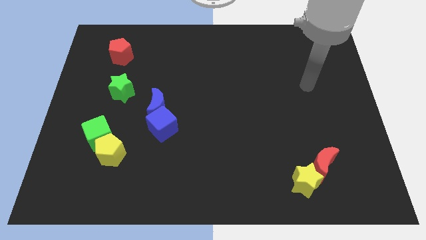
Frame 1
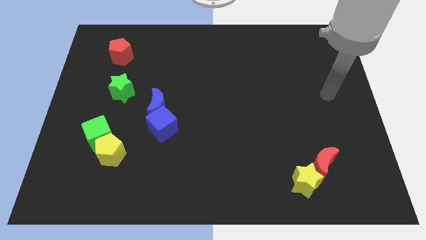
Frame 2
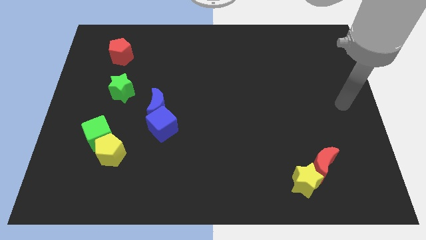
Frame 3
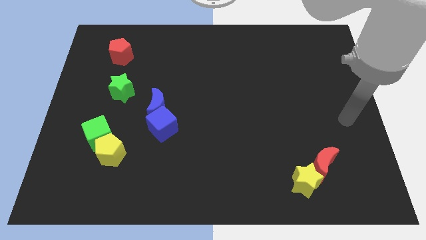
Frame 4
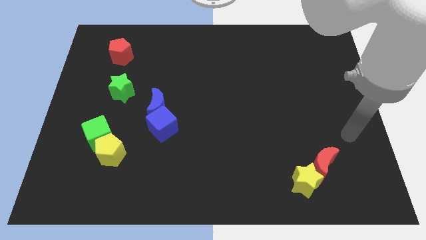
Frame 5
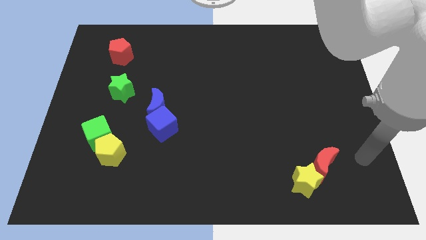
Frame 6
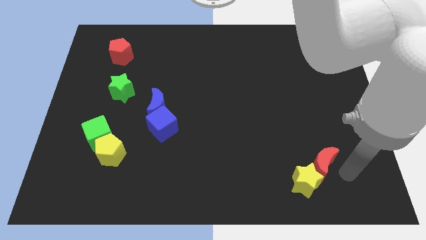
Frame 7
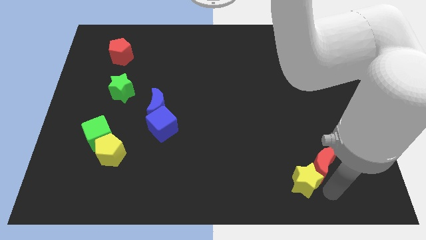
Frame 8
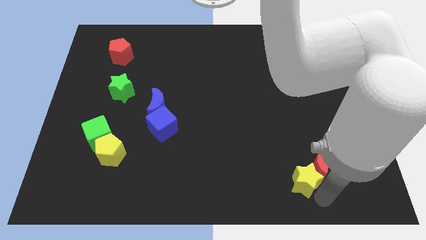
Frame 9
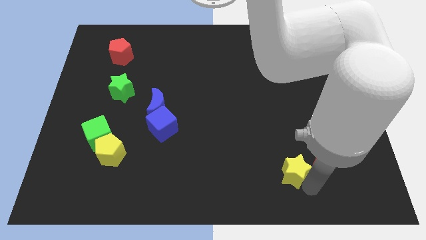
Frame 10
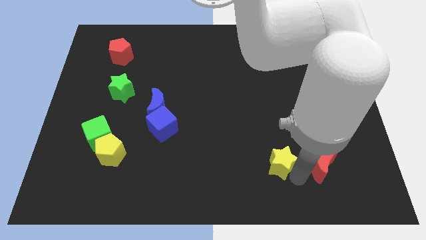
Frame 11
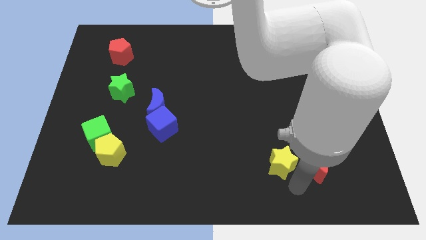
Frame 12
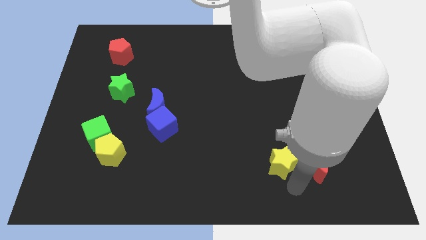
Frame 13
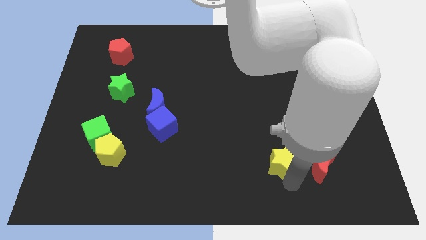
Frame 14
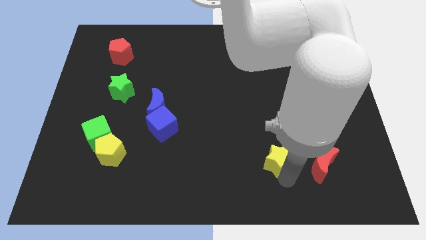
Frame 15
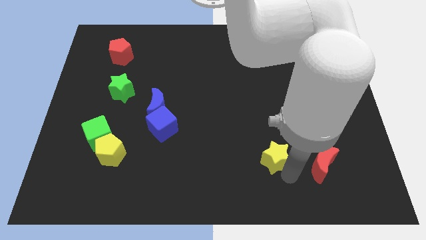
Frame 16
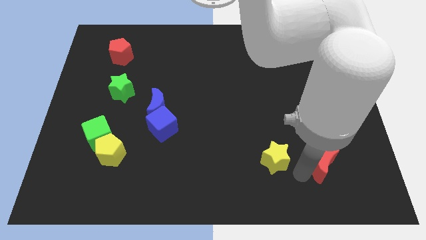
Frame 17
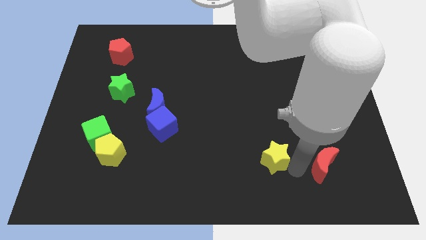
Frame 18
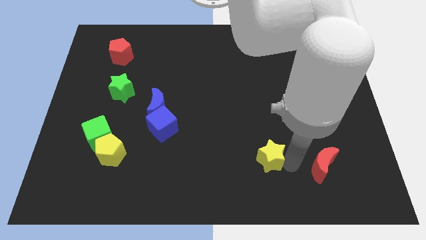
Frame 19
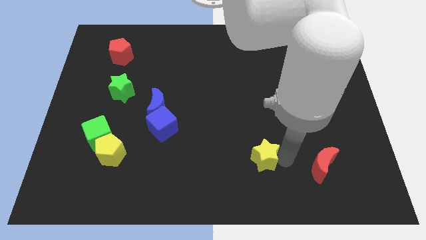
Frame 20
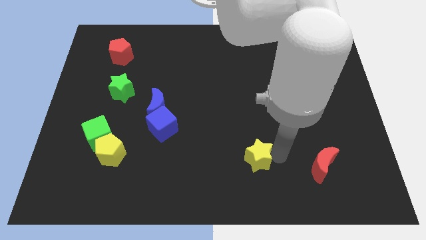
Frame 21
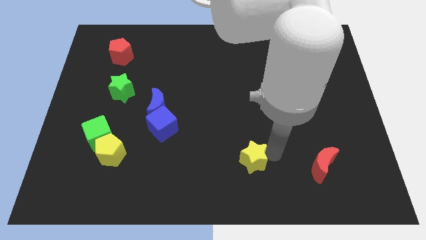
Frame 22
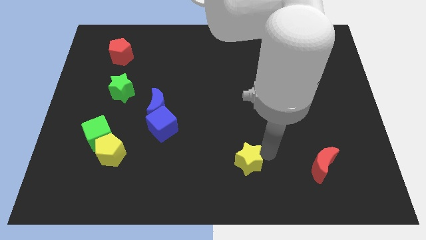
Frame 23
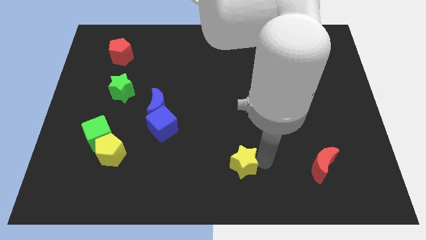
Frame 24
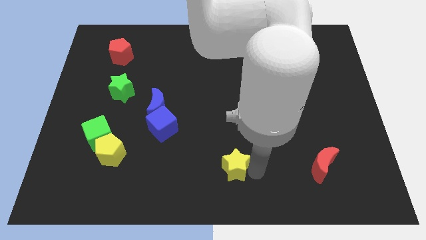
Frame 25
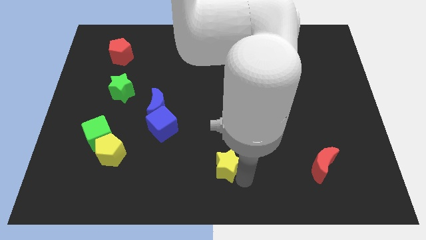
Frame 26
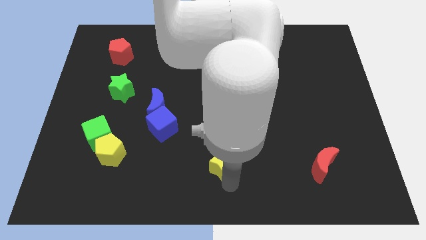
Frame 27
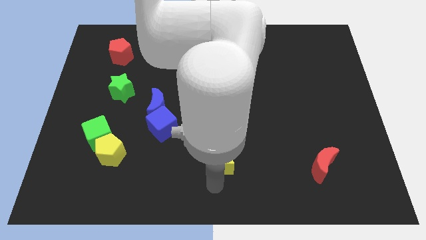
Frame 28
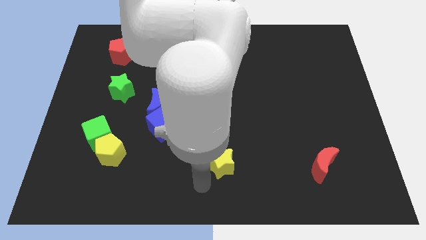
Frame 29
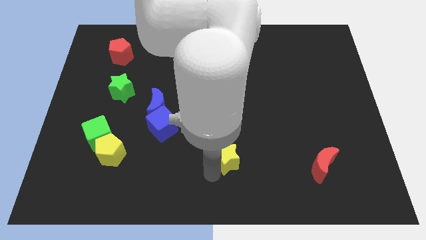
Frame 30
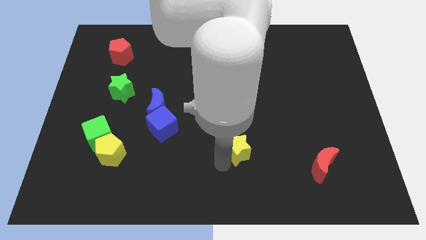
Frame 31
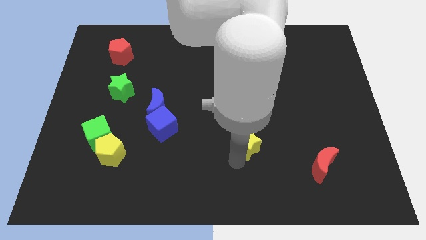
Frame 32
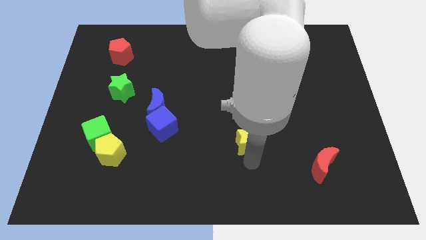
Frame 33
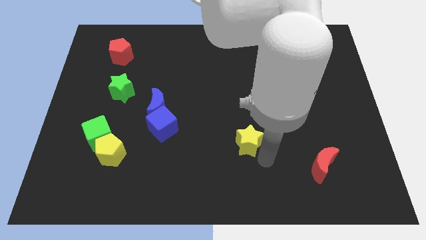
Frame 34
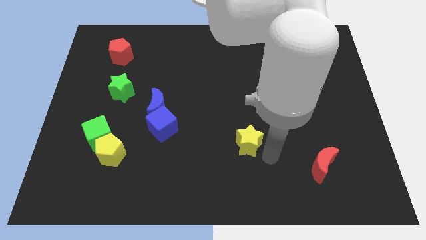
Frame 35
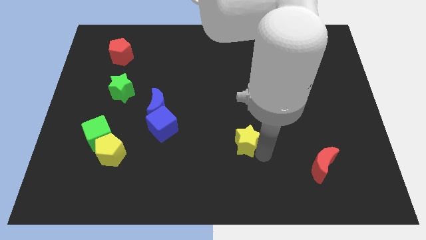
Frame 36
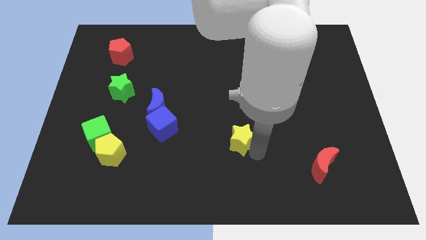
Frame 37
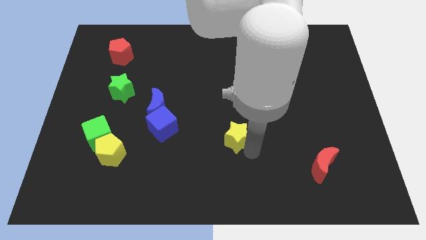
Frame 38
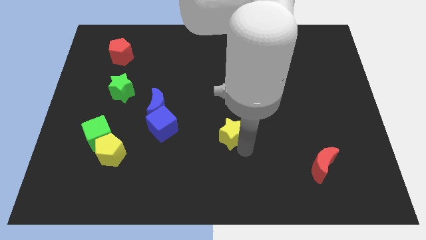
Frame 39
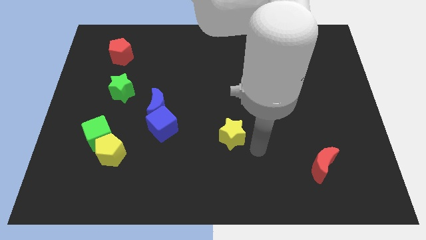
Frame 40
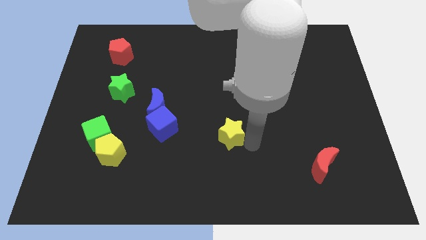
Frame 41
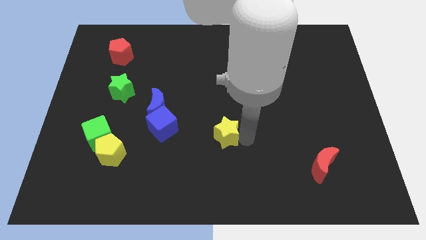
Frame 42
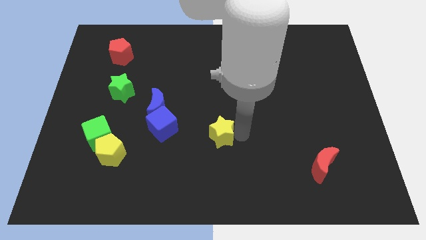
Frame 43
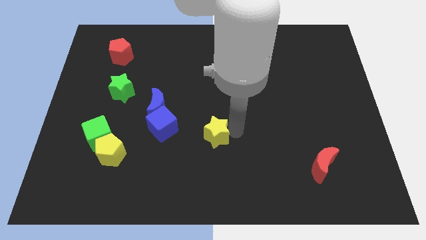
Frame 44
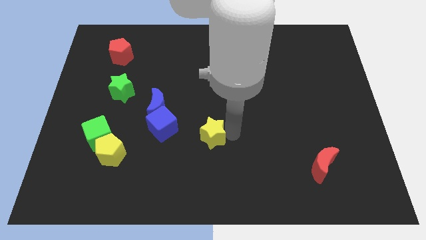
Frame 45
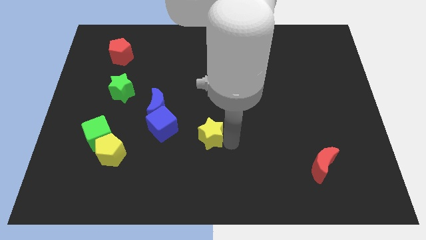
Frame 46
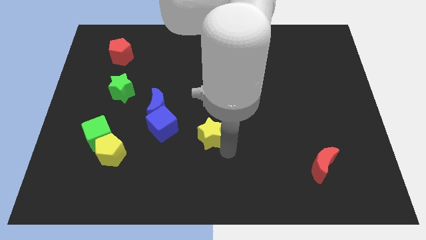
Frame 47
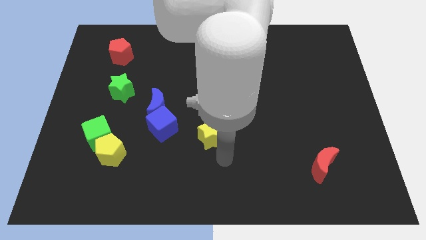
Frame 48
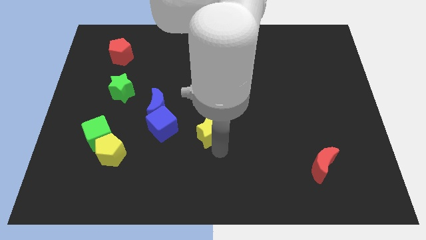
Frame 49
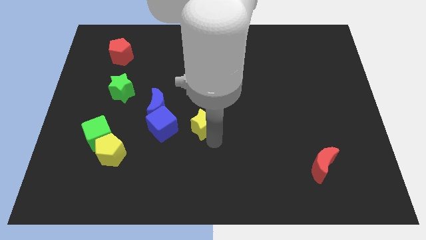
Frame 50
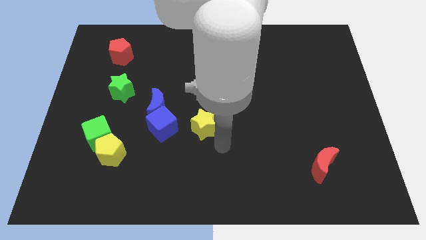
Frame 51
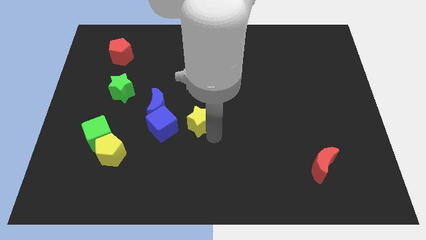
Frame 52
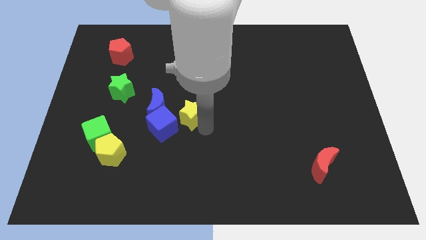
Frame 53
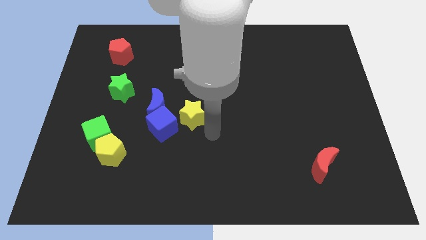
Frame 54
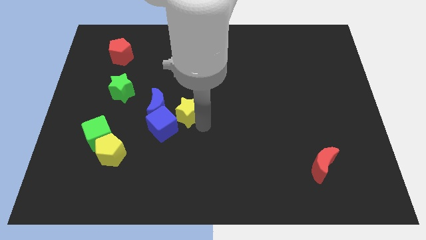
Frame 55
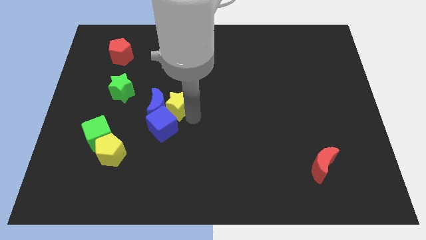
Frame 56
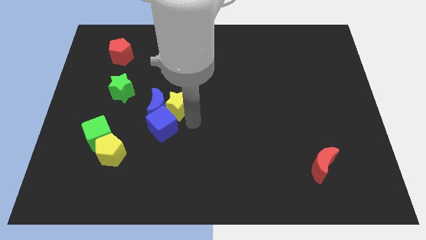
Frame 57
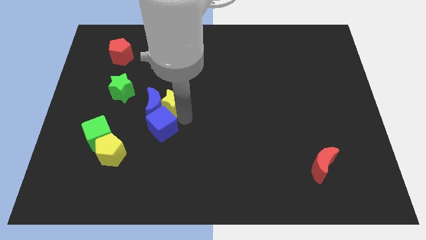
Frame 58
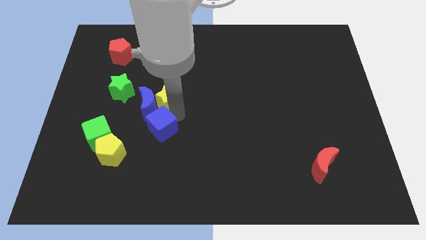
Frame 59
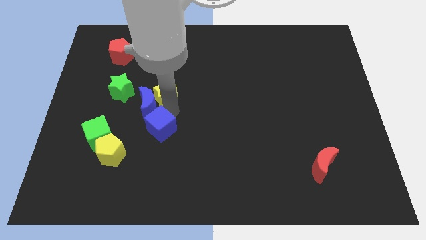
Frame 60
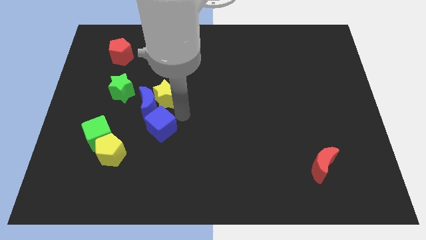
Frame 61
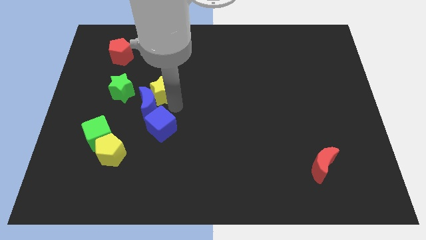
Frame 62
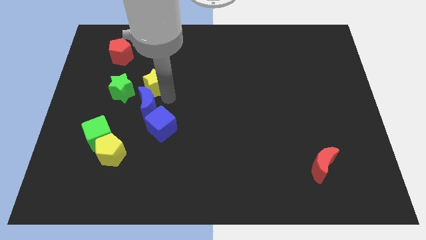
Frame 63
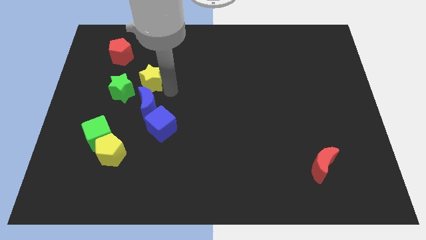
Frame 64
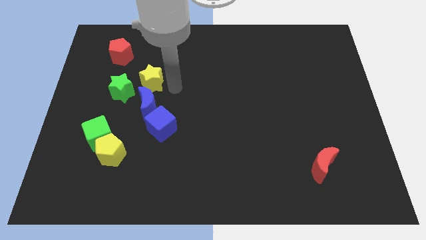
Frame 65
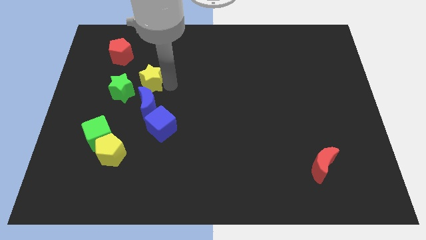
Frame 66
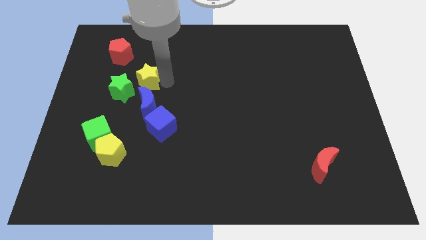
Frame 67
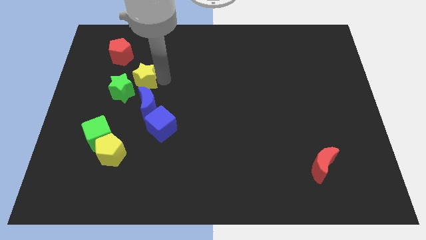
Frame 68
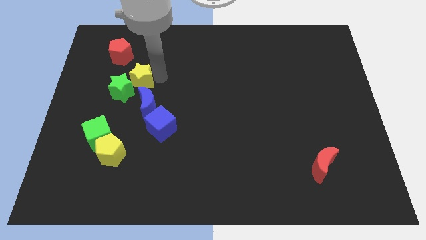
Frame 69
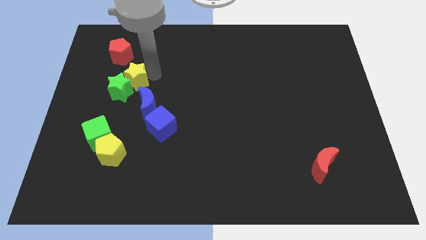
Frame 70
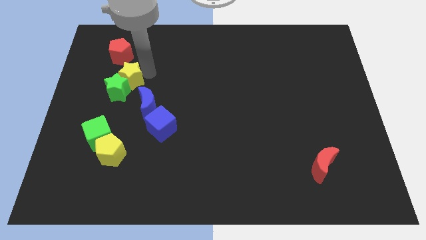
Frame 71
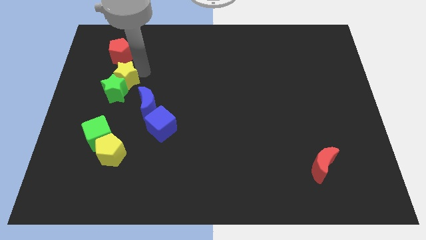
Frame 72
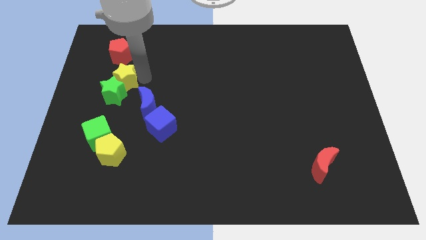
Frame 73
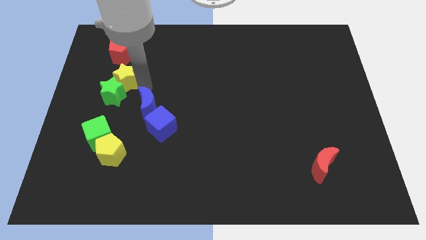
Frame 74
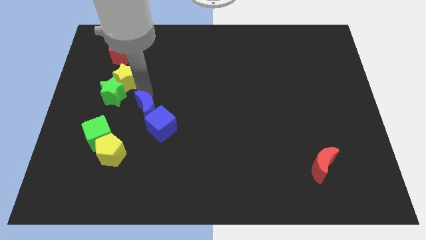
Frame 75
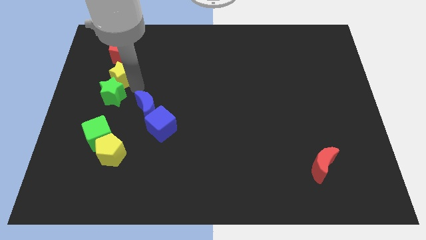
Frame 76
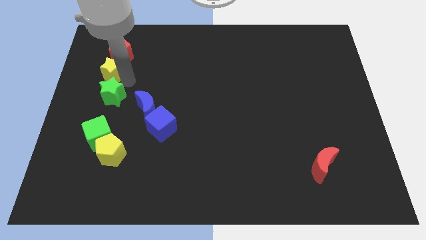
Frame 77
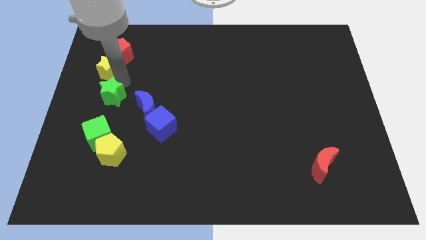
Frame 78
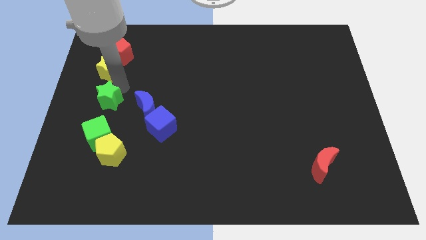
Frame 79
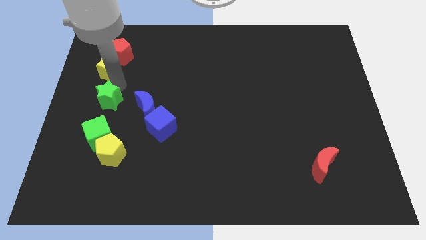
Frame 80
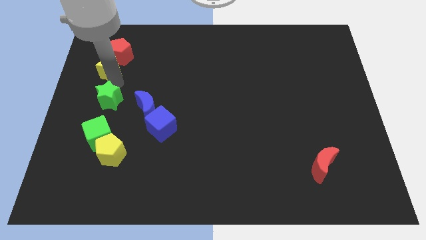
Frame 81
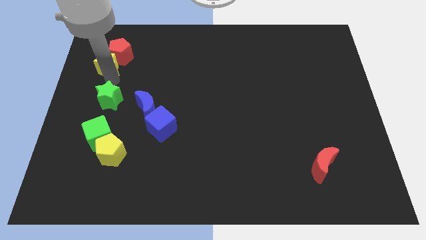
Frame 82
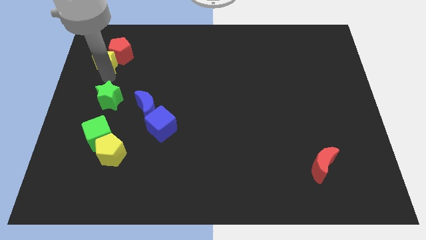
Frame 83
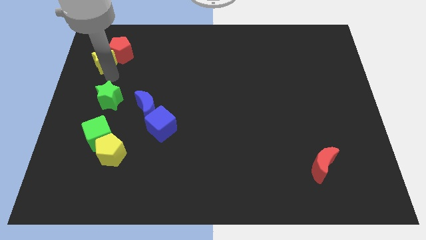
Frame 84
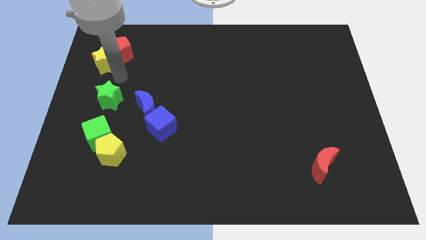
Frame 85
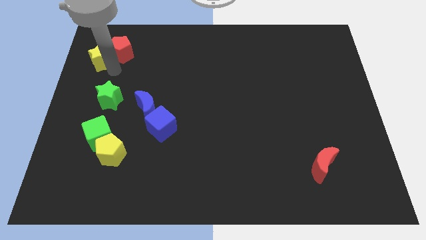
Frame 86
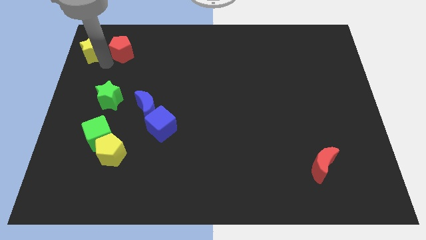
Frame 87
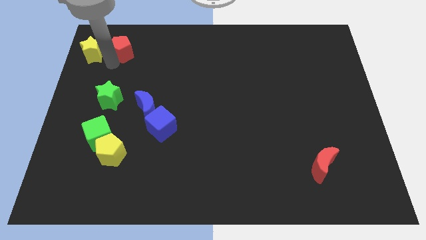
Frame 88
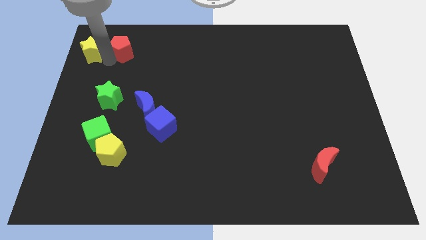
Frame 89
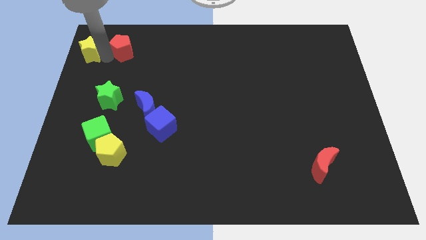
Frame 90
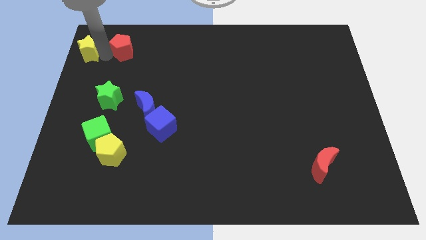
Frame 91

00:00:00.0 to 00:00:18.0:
push the yellow star to the upper left corner
